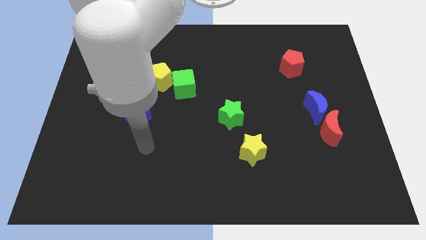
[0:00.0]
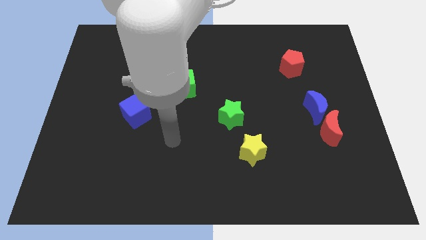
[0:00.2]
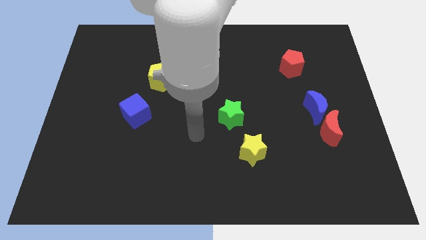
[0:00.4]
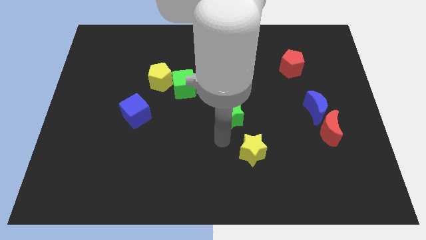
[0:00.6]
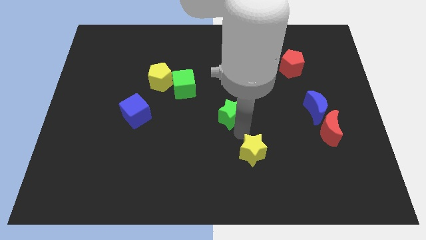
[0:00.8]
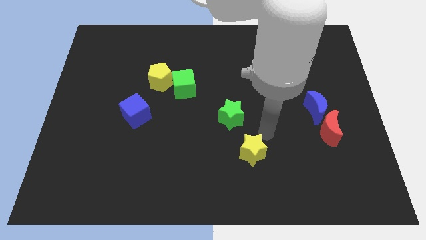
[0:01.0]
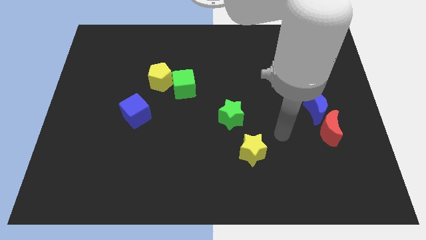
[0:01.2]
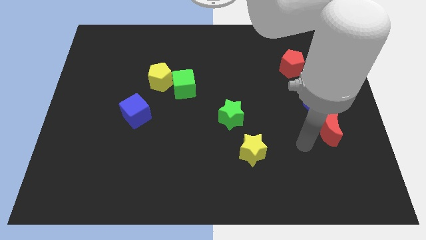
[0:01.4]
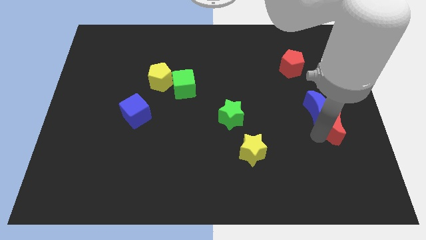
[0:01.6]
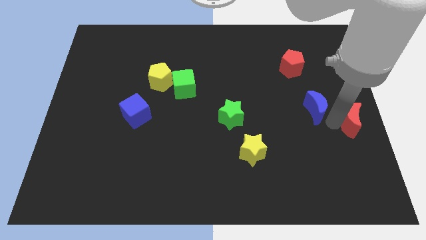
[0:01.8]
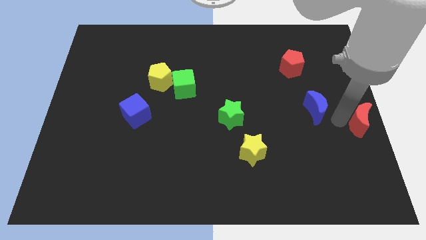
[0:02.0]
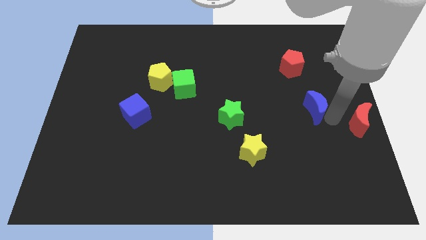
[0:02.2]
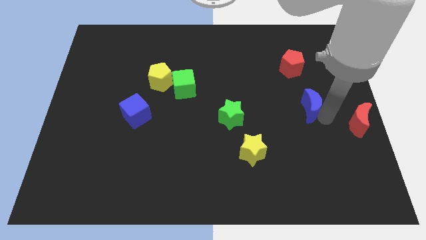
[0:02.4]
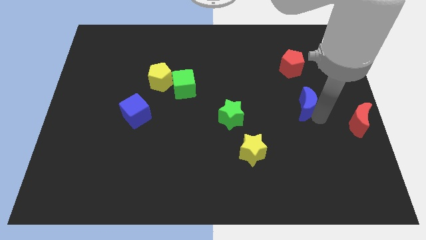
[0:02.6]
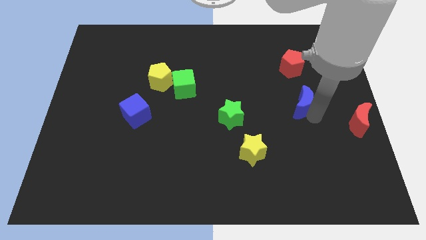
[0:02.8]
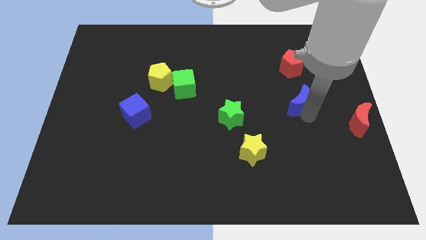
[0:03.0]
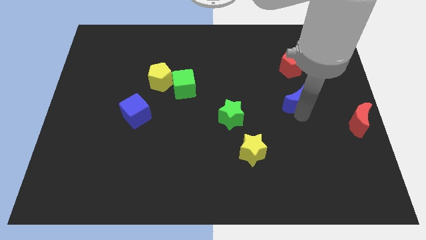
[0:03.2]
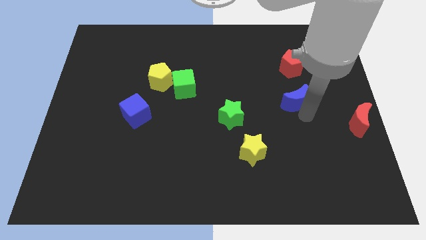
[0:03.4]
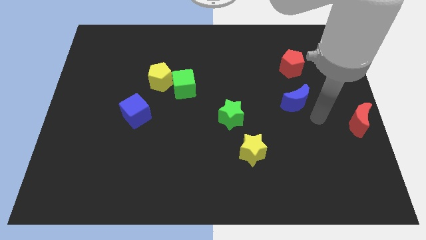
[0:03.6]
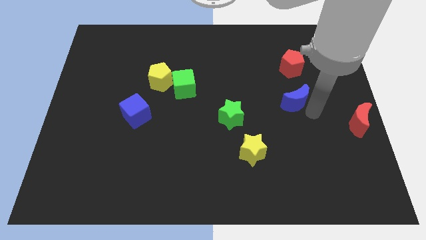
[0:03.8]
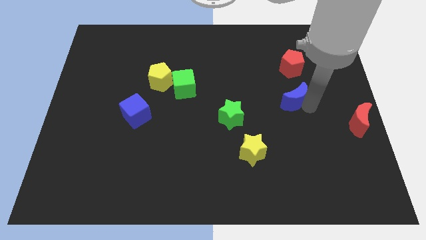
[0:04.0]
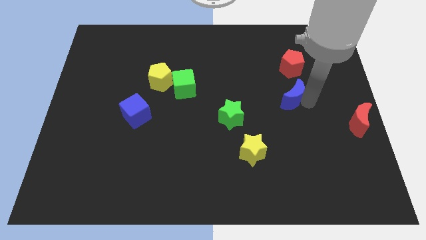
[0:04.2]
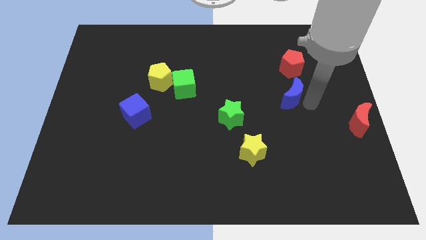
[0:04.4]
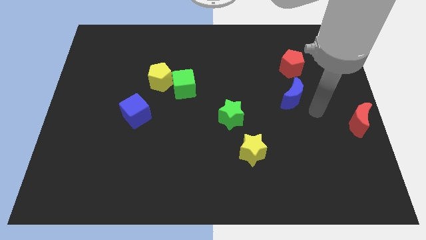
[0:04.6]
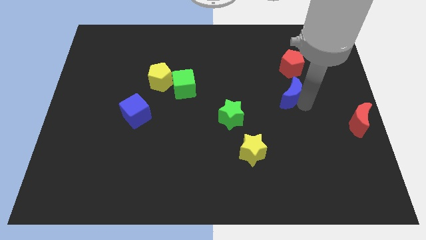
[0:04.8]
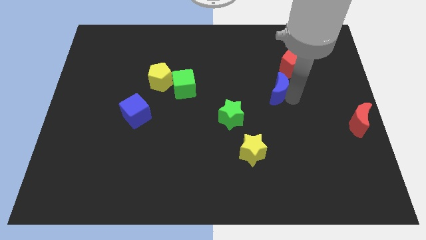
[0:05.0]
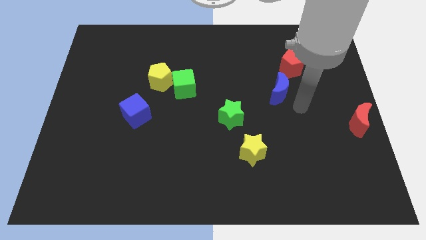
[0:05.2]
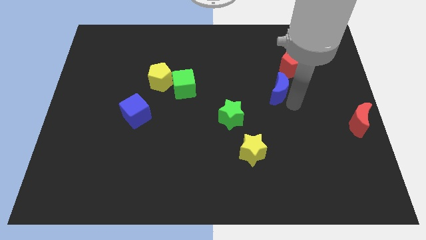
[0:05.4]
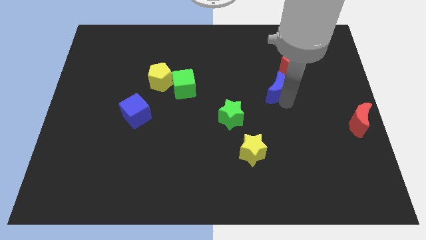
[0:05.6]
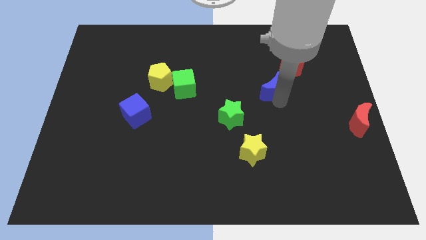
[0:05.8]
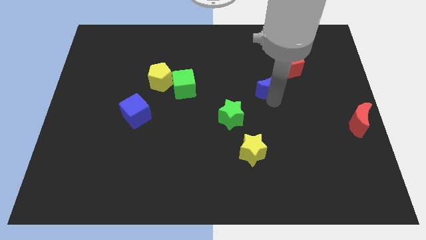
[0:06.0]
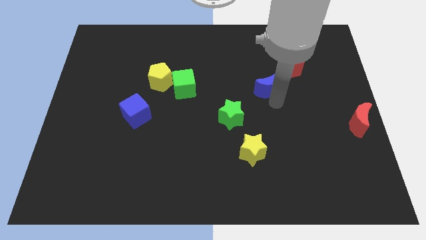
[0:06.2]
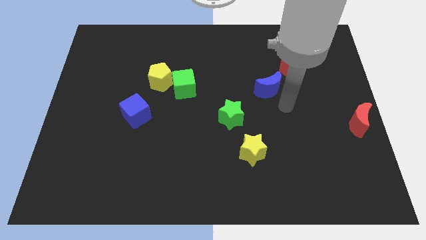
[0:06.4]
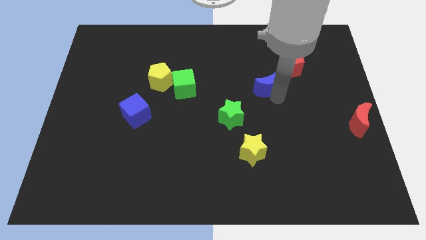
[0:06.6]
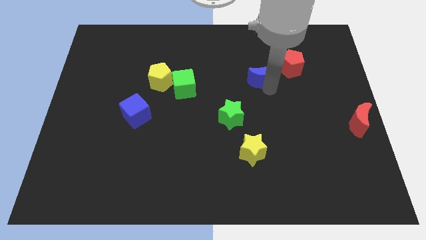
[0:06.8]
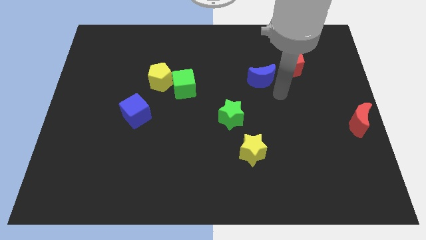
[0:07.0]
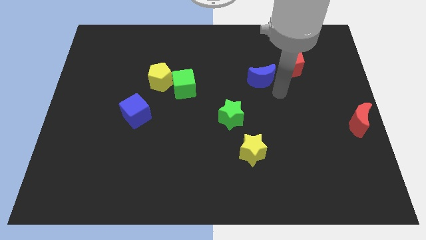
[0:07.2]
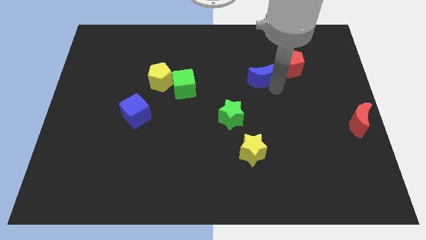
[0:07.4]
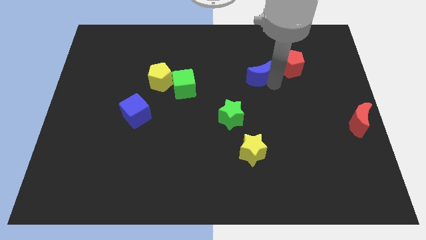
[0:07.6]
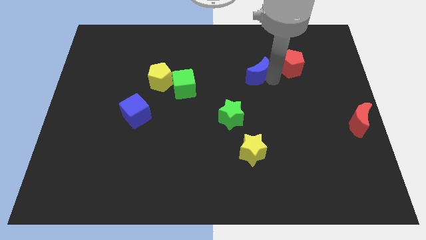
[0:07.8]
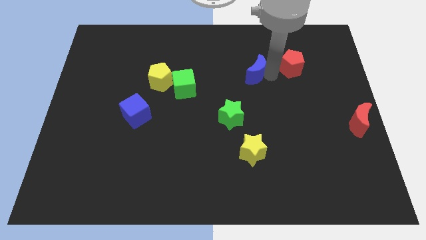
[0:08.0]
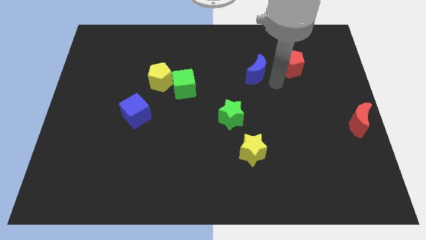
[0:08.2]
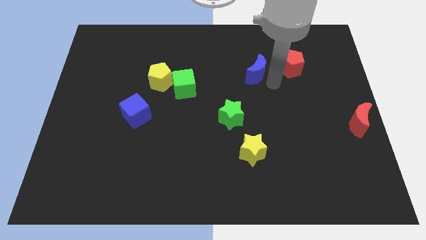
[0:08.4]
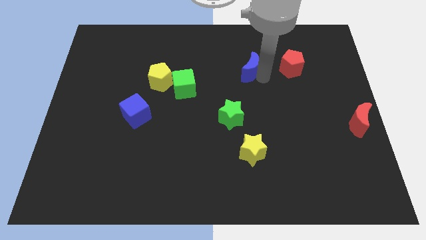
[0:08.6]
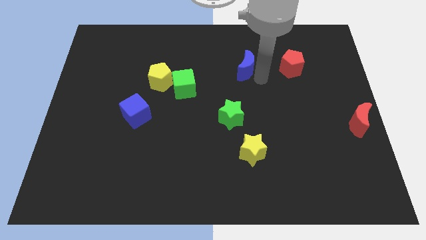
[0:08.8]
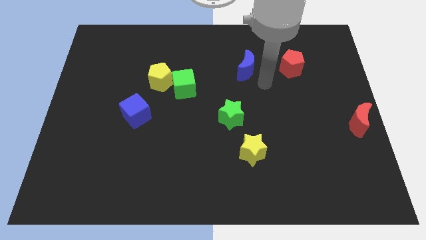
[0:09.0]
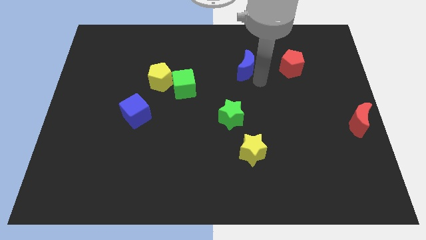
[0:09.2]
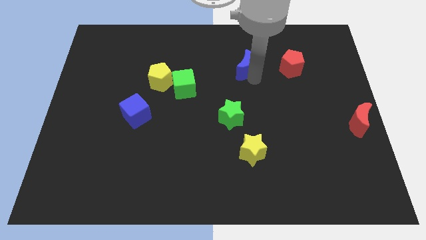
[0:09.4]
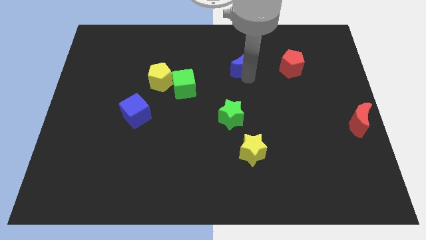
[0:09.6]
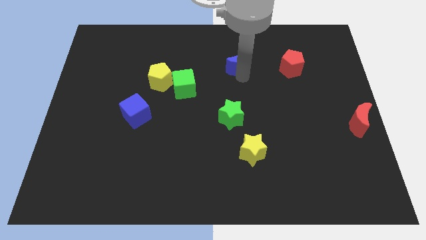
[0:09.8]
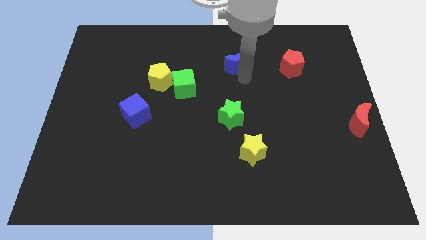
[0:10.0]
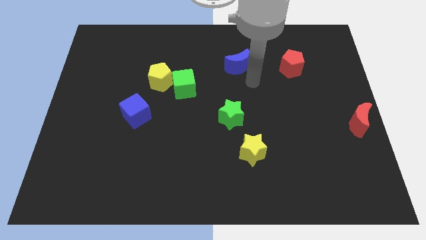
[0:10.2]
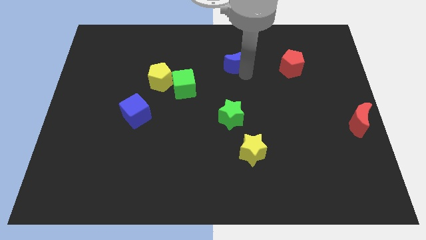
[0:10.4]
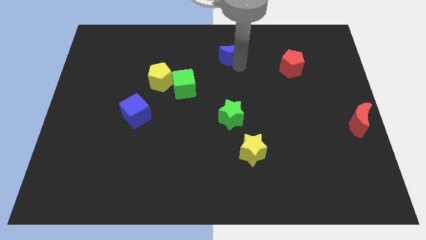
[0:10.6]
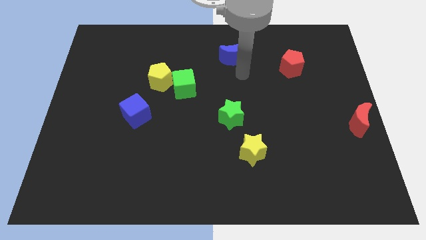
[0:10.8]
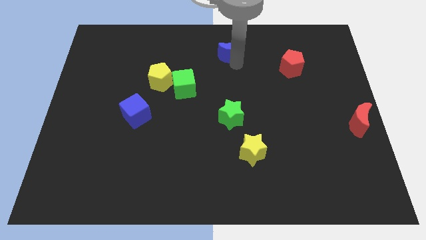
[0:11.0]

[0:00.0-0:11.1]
put the blue moon to the towards your base

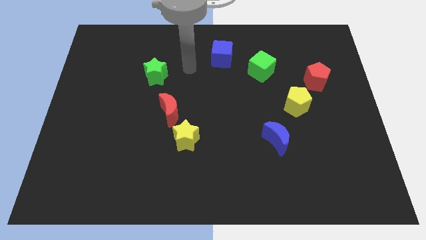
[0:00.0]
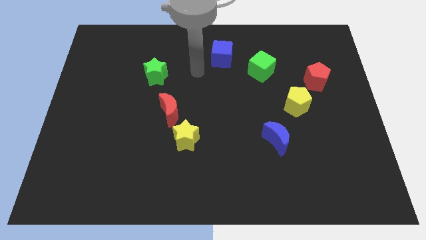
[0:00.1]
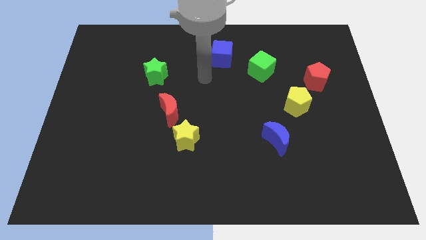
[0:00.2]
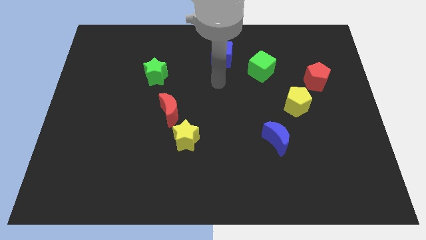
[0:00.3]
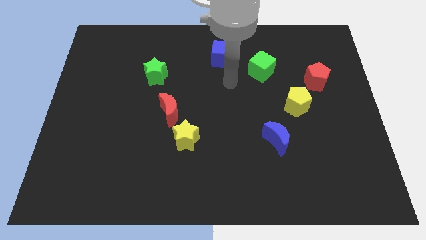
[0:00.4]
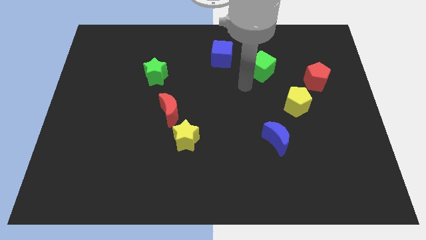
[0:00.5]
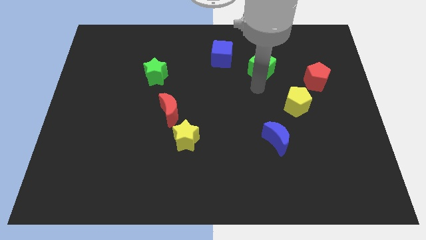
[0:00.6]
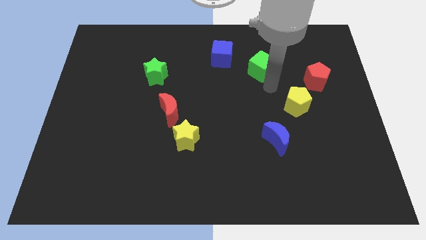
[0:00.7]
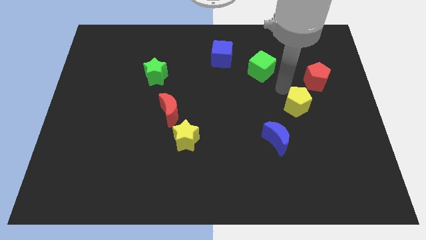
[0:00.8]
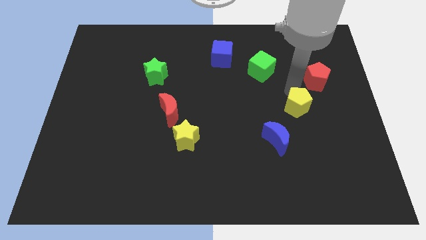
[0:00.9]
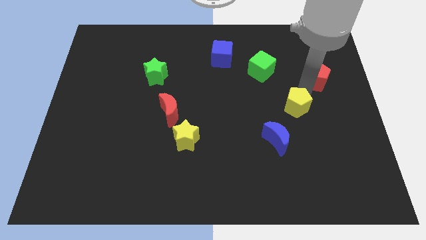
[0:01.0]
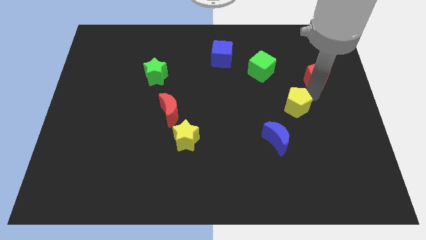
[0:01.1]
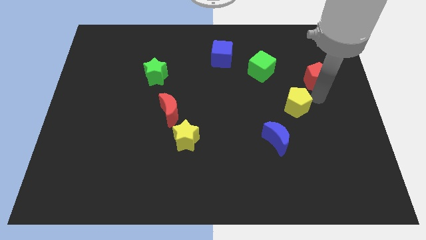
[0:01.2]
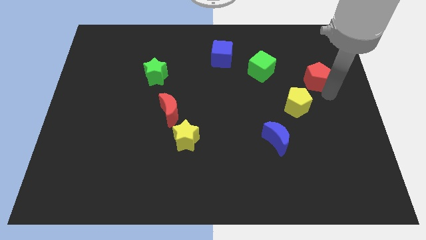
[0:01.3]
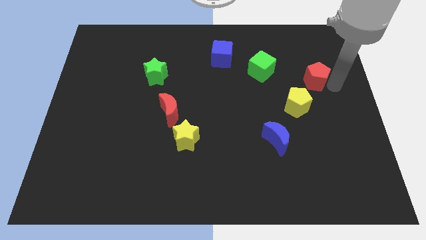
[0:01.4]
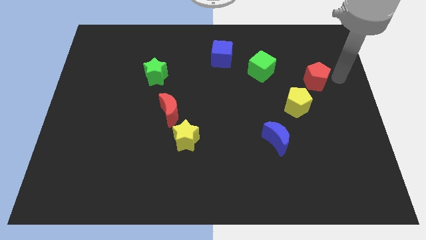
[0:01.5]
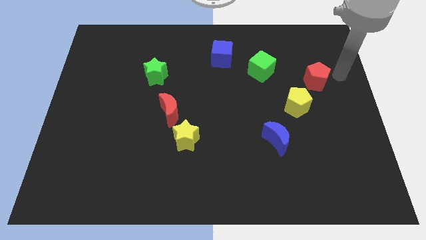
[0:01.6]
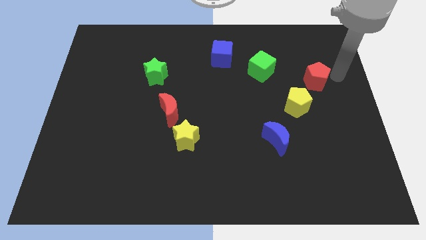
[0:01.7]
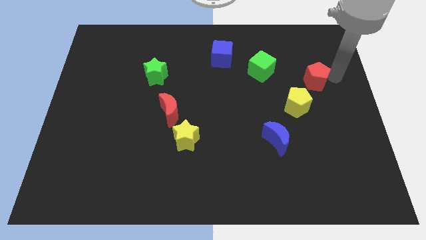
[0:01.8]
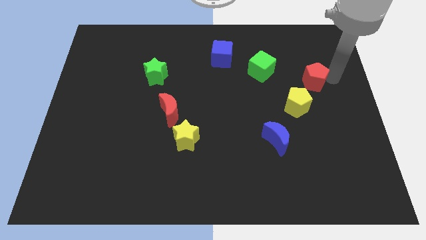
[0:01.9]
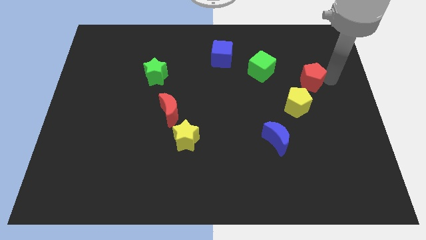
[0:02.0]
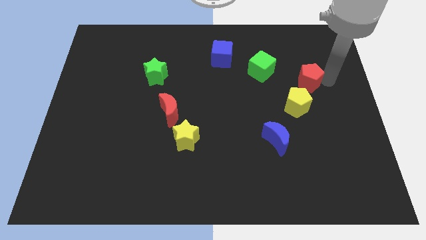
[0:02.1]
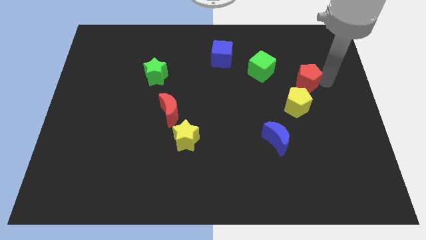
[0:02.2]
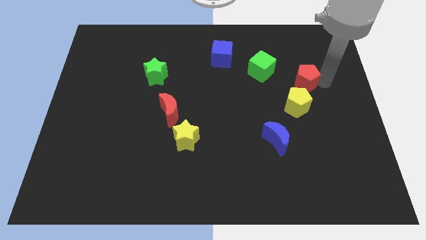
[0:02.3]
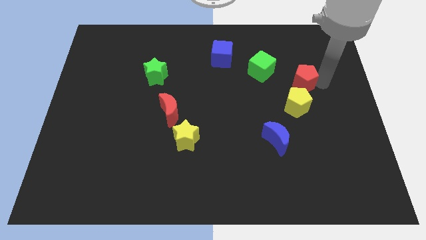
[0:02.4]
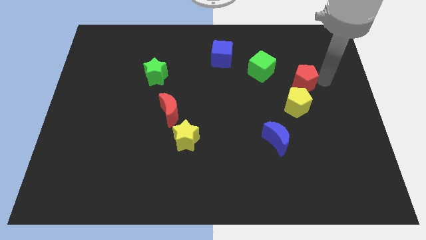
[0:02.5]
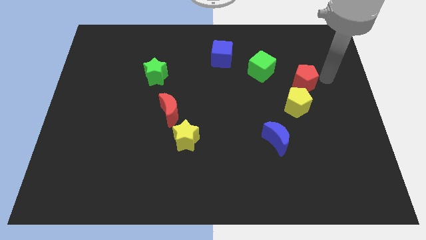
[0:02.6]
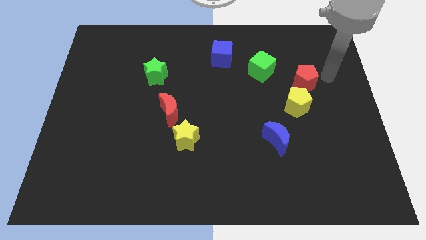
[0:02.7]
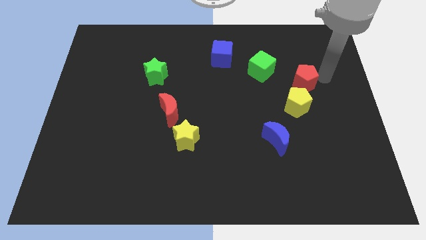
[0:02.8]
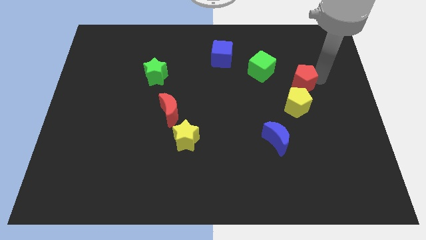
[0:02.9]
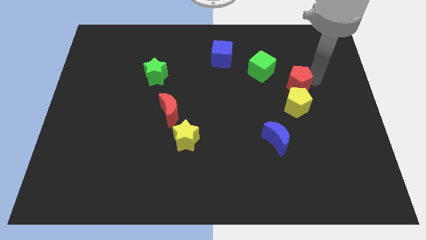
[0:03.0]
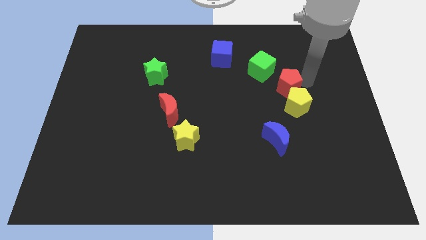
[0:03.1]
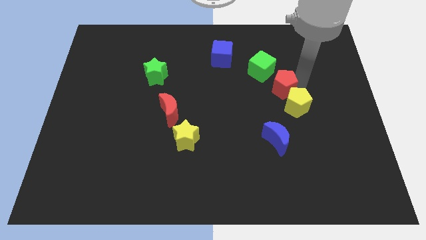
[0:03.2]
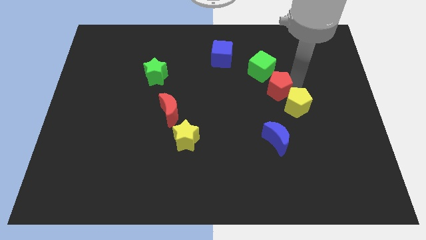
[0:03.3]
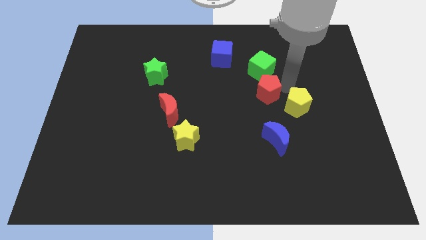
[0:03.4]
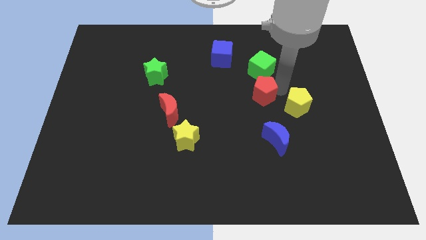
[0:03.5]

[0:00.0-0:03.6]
slide the red pentagon to the middle of the board
